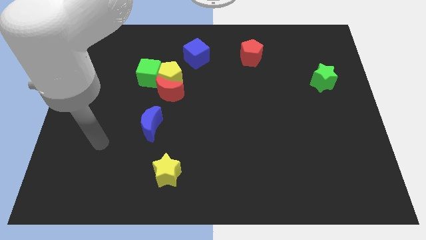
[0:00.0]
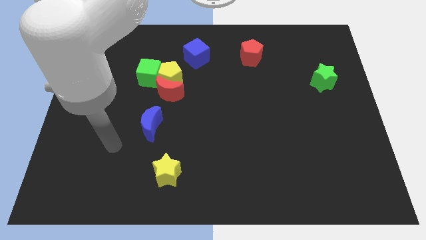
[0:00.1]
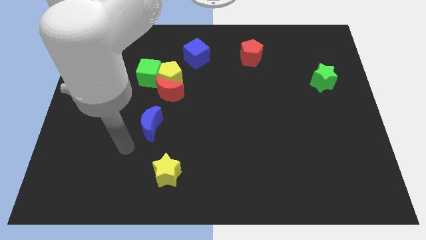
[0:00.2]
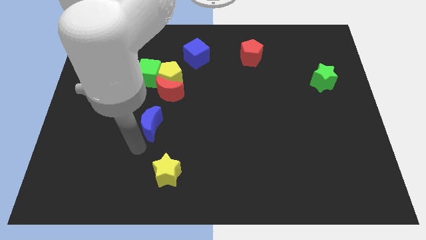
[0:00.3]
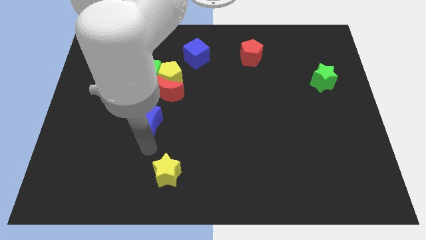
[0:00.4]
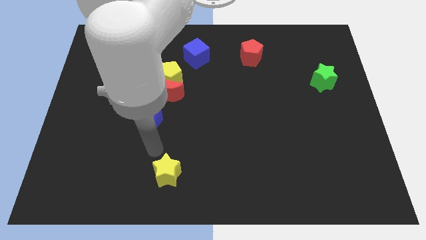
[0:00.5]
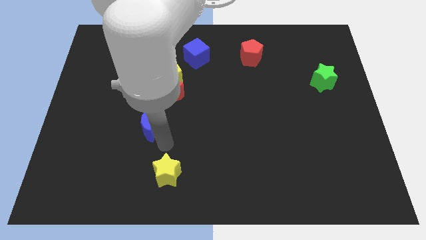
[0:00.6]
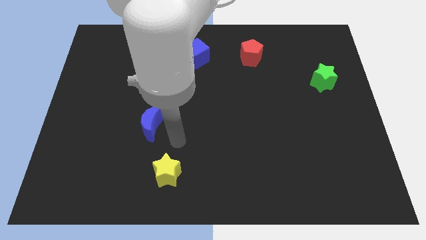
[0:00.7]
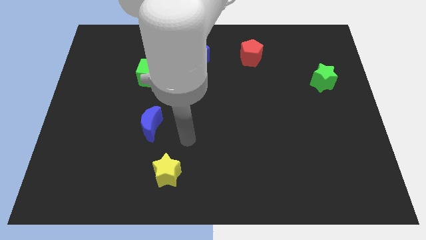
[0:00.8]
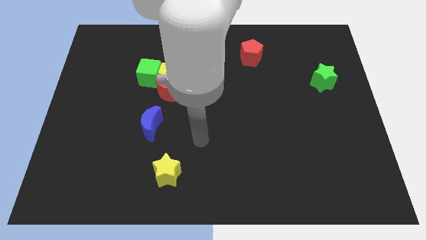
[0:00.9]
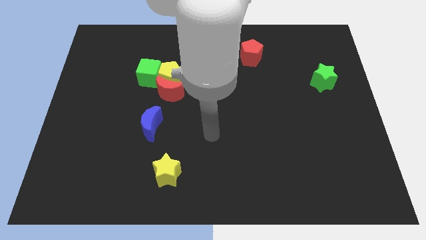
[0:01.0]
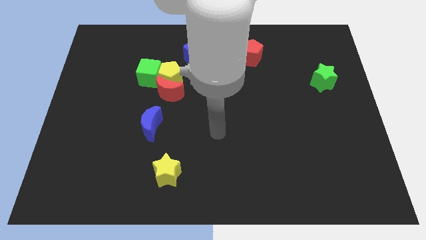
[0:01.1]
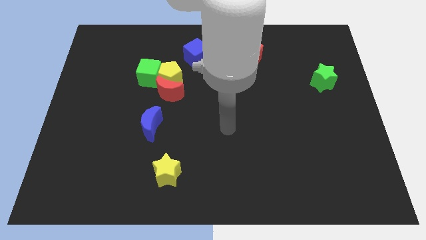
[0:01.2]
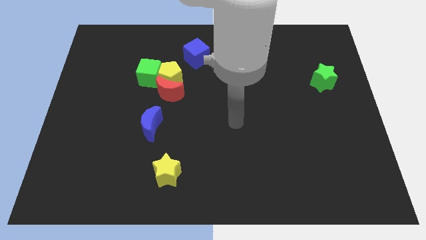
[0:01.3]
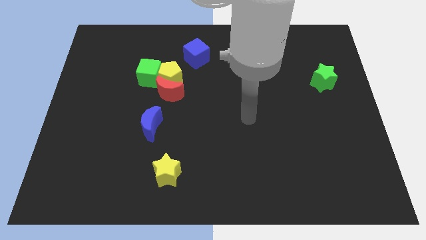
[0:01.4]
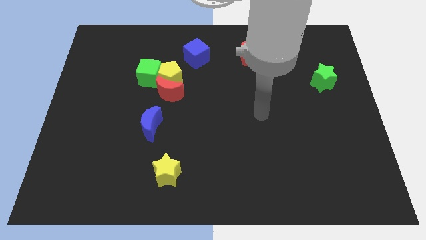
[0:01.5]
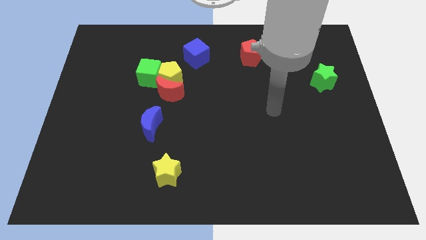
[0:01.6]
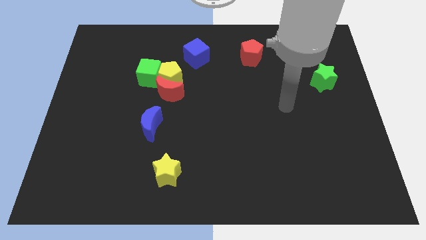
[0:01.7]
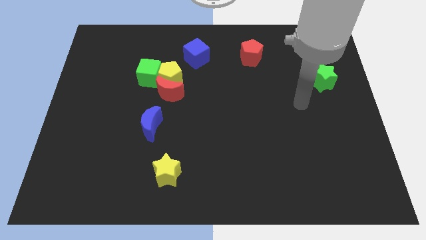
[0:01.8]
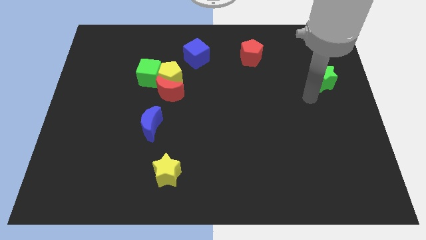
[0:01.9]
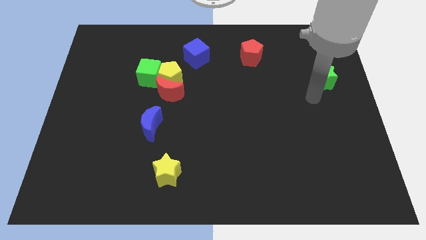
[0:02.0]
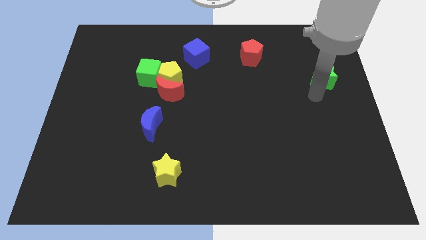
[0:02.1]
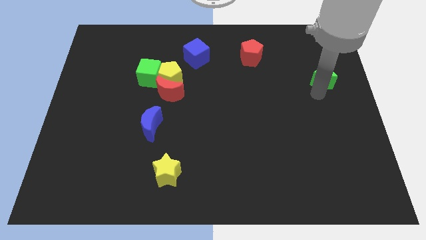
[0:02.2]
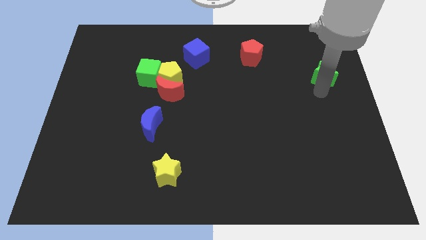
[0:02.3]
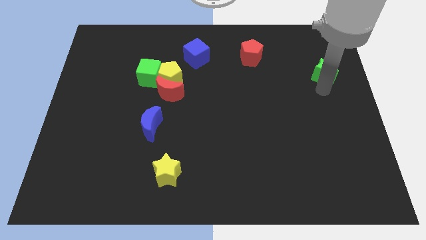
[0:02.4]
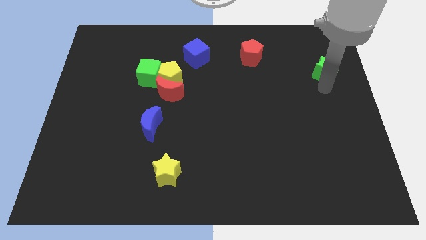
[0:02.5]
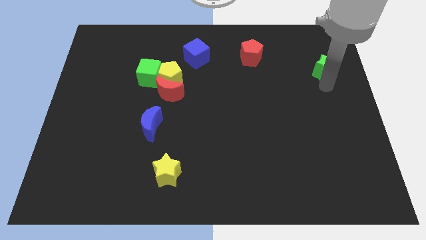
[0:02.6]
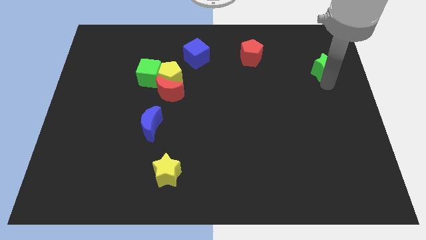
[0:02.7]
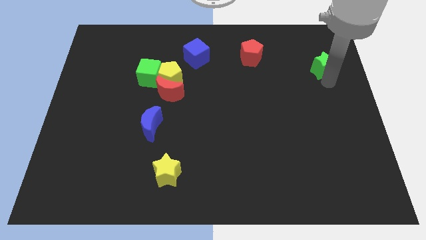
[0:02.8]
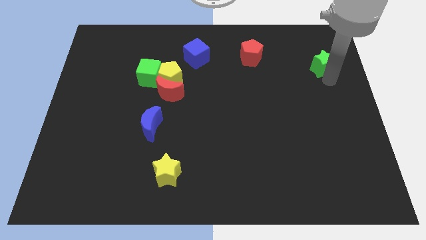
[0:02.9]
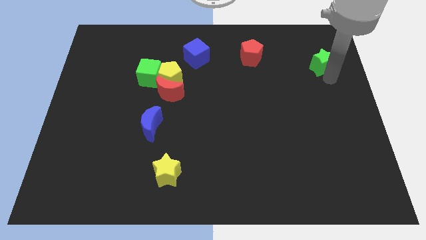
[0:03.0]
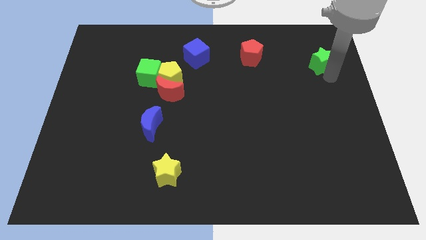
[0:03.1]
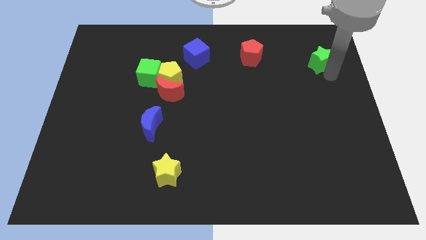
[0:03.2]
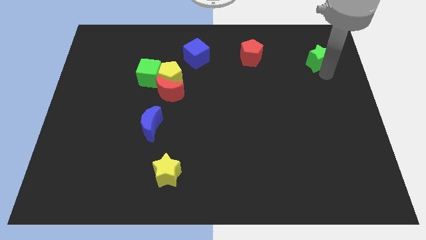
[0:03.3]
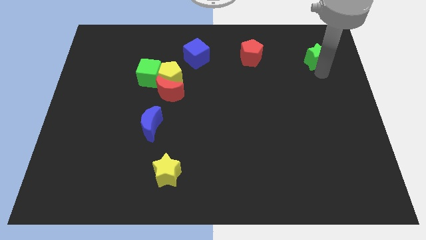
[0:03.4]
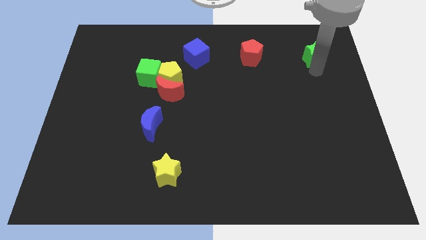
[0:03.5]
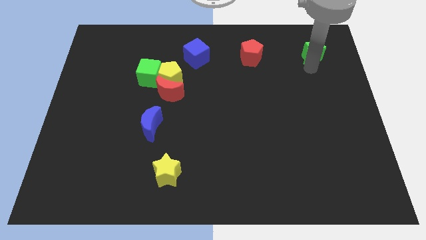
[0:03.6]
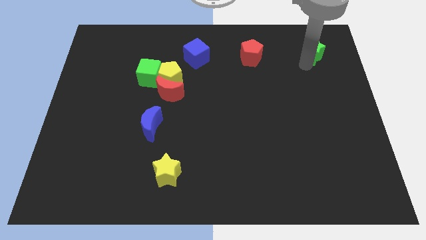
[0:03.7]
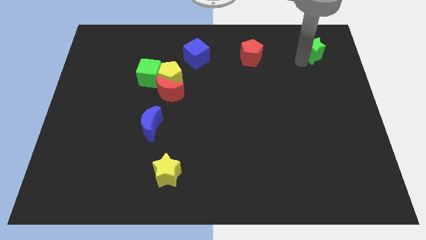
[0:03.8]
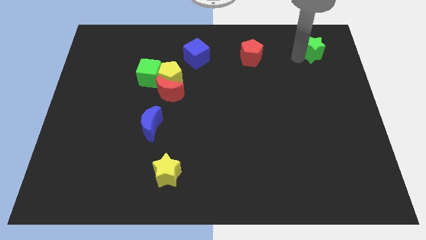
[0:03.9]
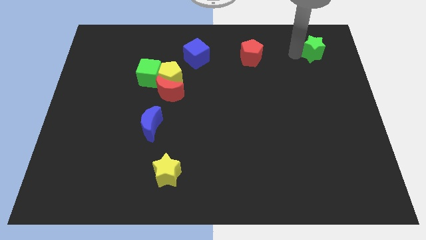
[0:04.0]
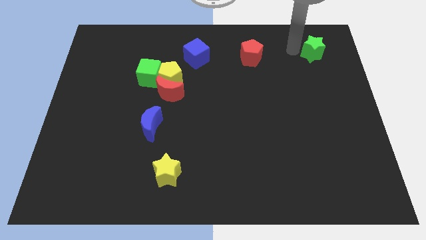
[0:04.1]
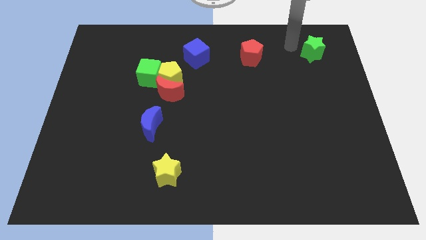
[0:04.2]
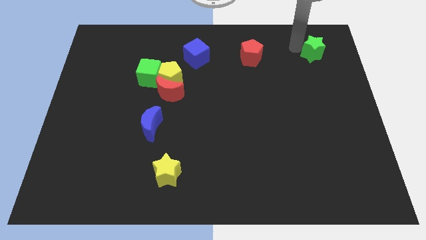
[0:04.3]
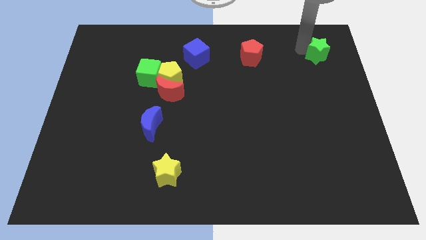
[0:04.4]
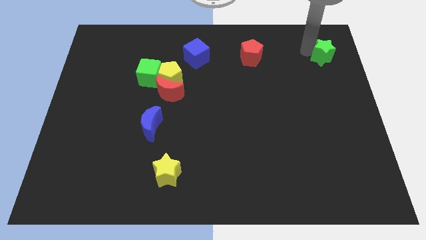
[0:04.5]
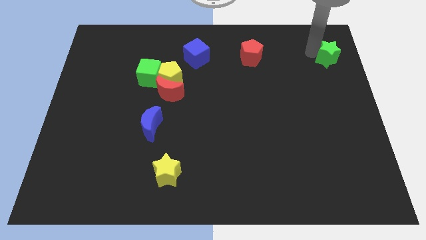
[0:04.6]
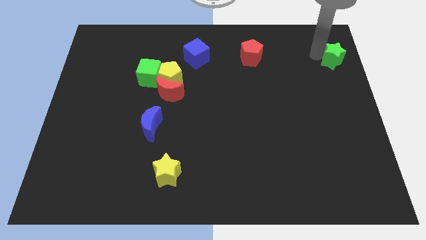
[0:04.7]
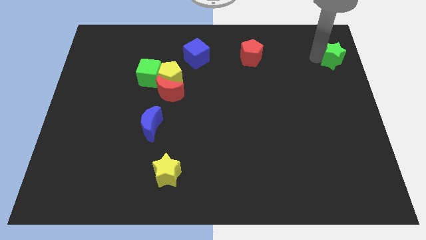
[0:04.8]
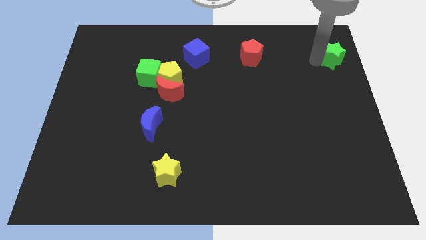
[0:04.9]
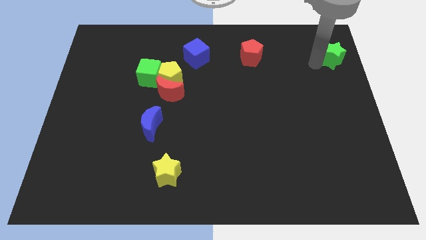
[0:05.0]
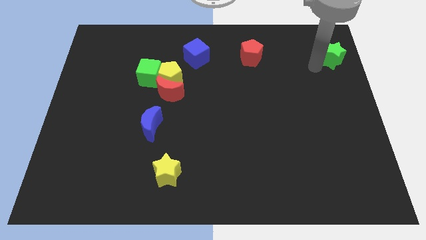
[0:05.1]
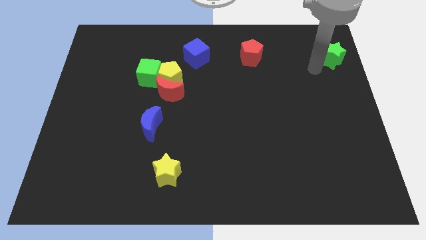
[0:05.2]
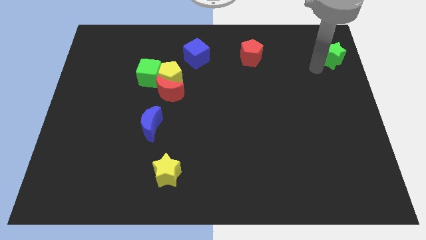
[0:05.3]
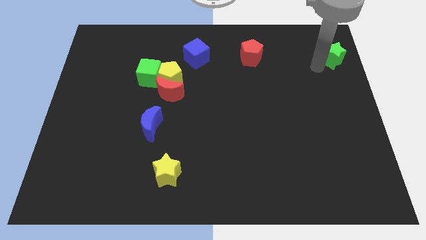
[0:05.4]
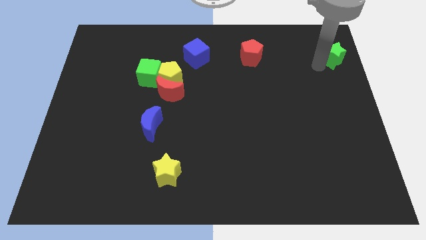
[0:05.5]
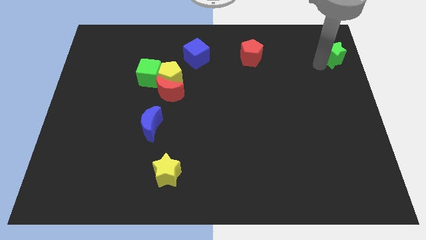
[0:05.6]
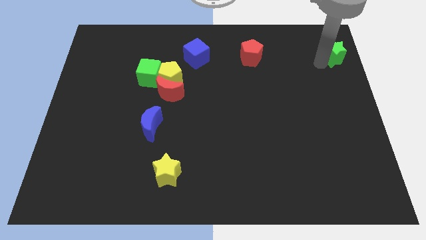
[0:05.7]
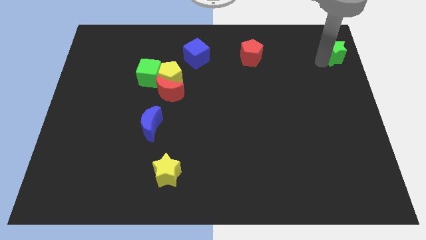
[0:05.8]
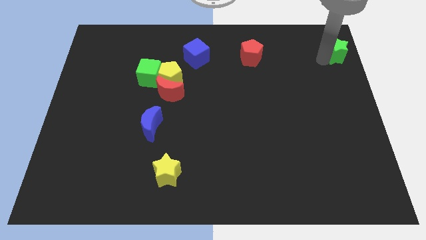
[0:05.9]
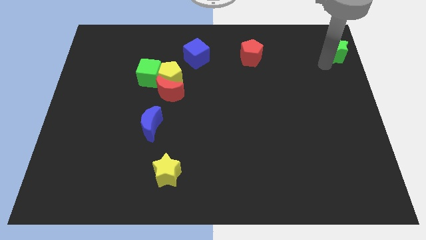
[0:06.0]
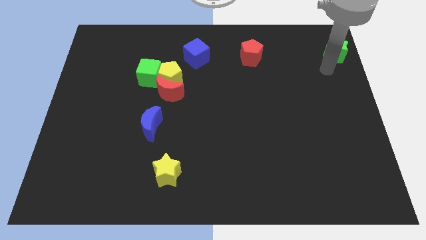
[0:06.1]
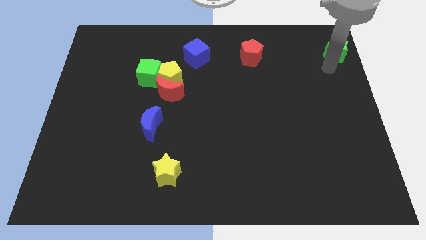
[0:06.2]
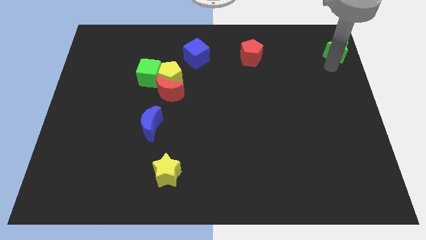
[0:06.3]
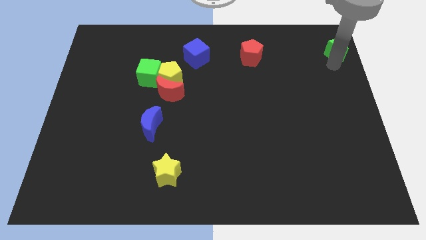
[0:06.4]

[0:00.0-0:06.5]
push the green star to the top right corner

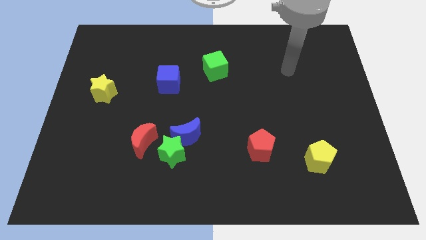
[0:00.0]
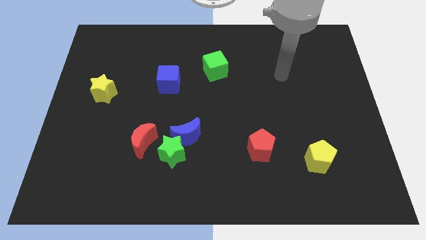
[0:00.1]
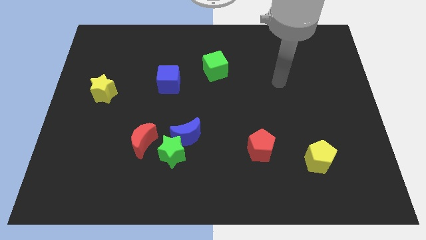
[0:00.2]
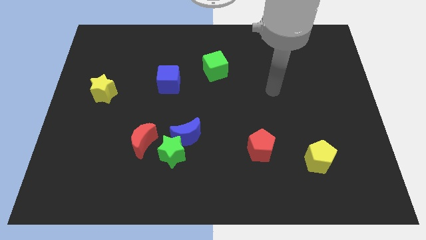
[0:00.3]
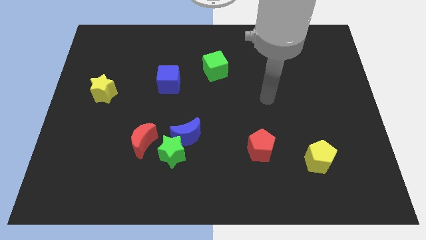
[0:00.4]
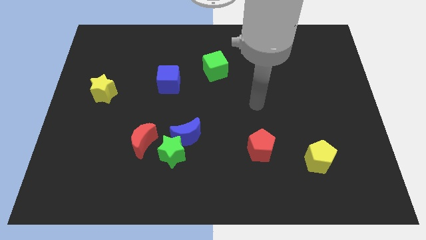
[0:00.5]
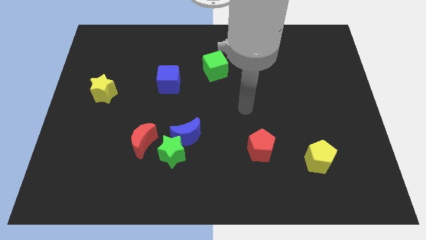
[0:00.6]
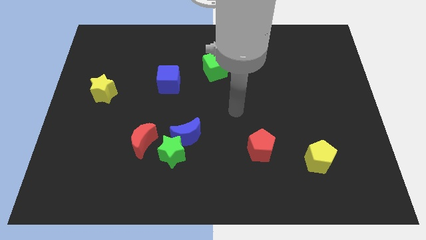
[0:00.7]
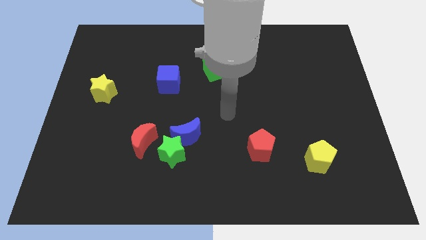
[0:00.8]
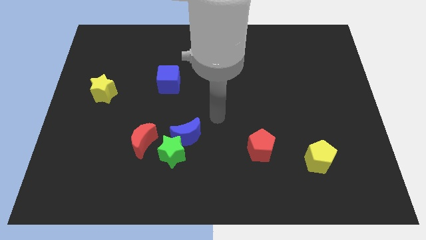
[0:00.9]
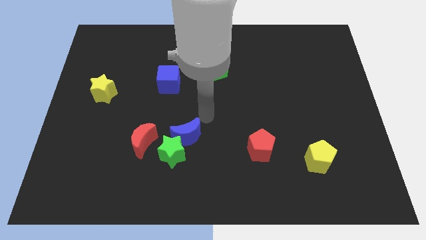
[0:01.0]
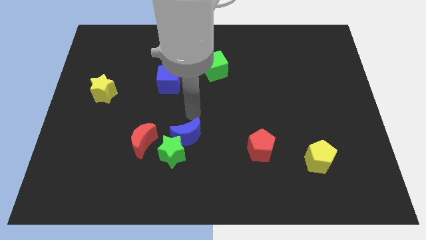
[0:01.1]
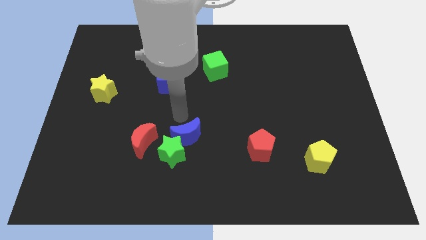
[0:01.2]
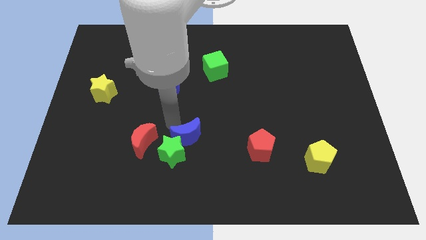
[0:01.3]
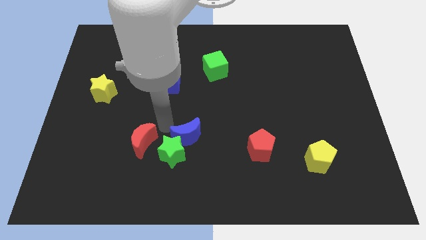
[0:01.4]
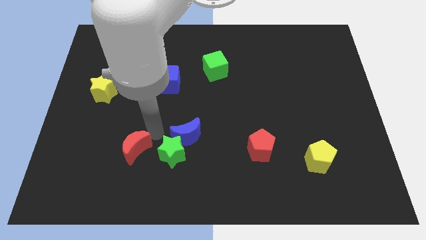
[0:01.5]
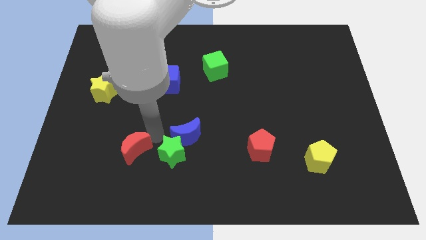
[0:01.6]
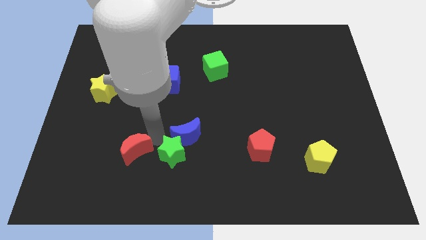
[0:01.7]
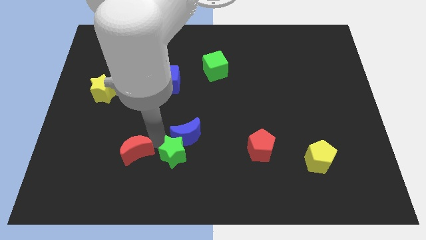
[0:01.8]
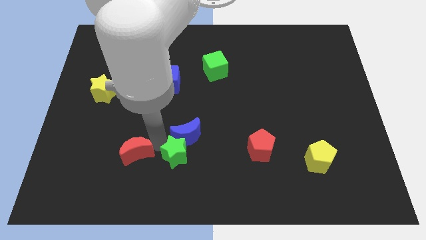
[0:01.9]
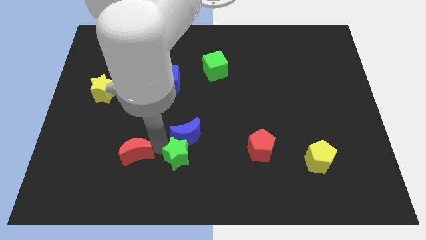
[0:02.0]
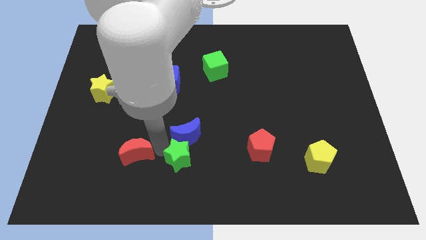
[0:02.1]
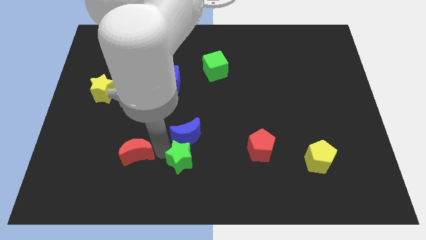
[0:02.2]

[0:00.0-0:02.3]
slide the green star to the bottom
